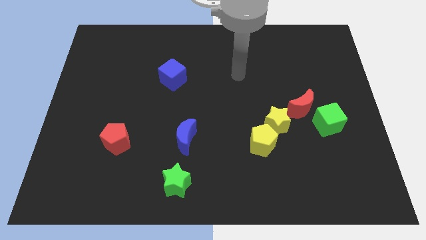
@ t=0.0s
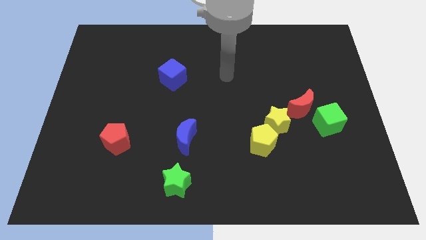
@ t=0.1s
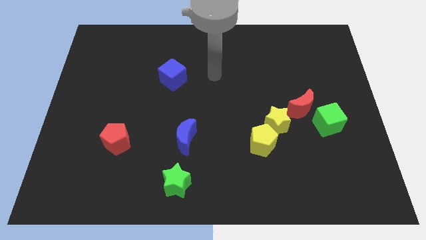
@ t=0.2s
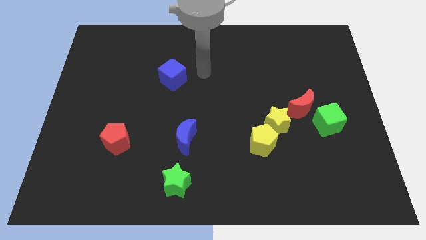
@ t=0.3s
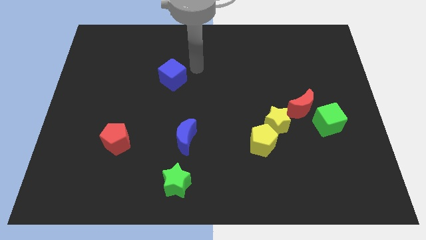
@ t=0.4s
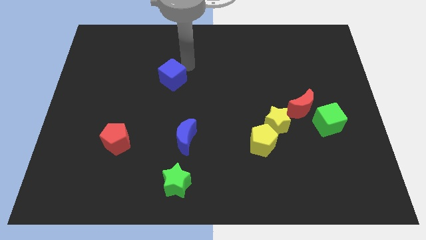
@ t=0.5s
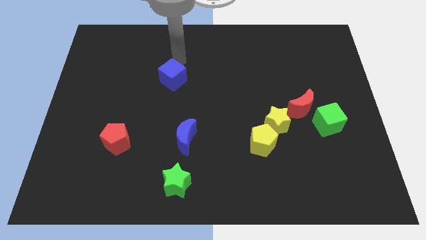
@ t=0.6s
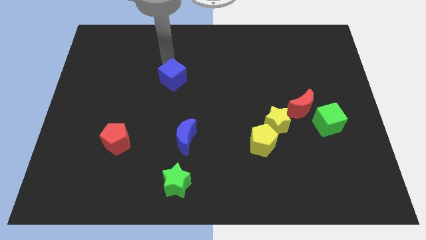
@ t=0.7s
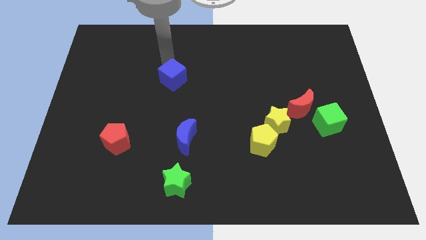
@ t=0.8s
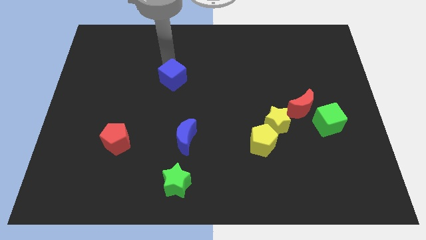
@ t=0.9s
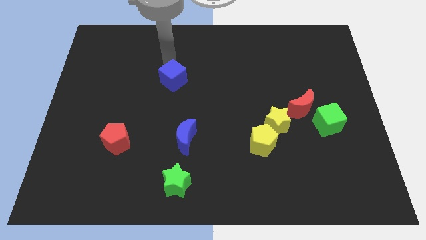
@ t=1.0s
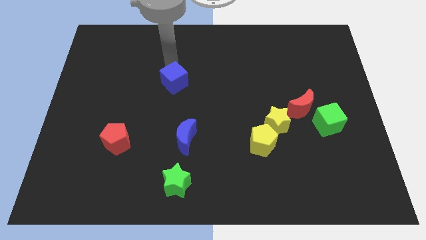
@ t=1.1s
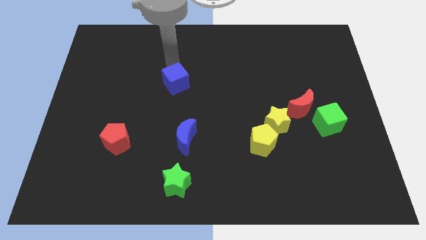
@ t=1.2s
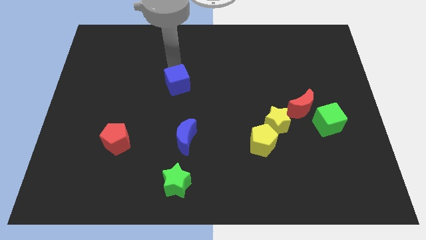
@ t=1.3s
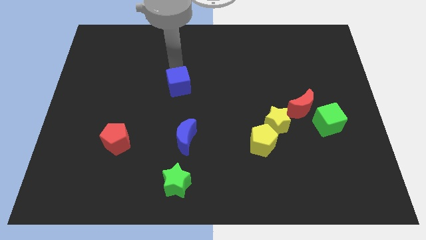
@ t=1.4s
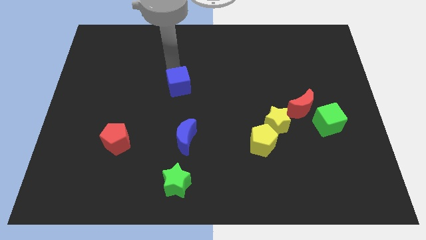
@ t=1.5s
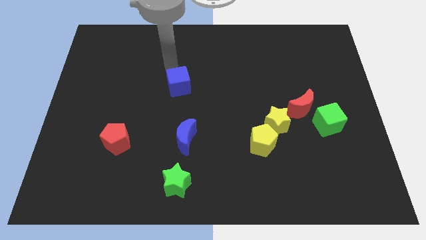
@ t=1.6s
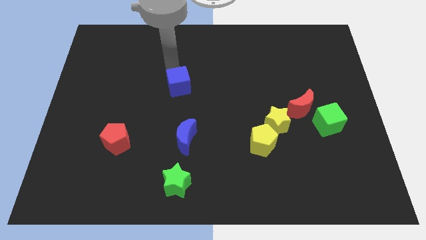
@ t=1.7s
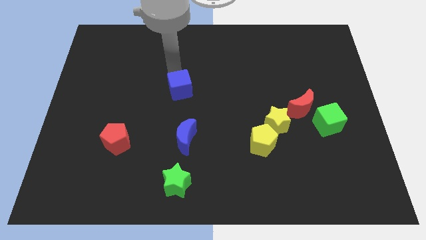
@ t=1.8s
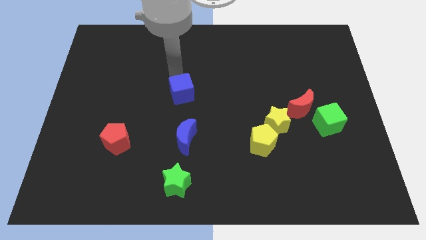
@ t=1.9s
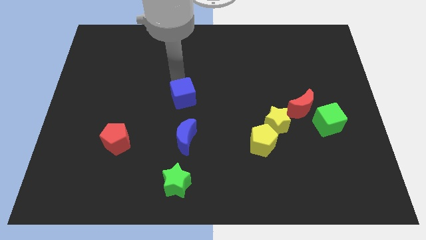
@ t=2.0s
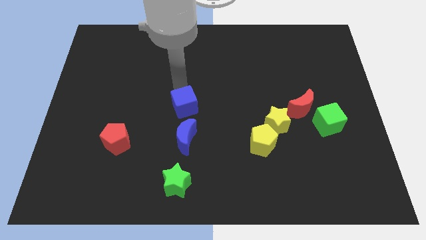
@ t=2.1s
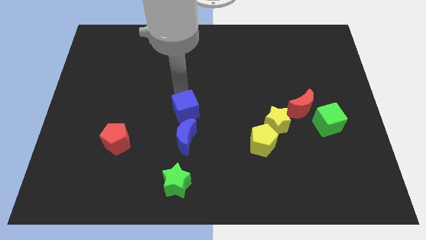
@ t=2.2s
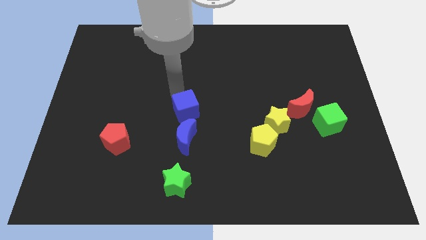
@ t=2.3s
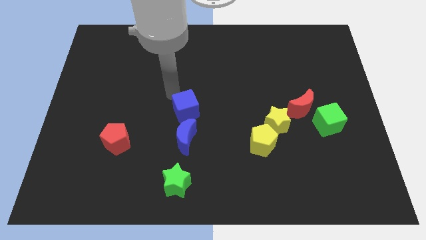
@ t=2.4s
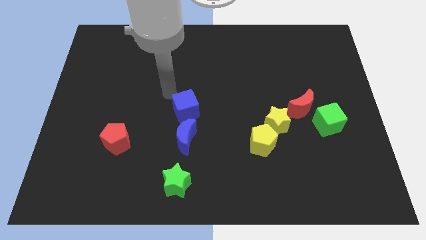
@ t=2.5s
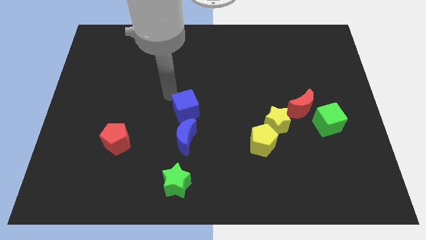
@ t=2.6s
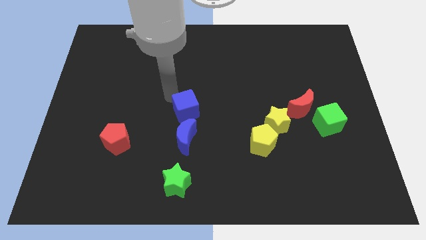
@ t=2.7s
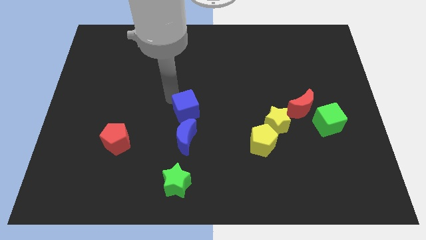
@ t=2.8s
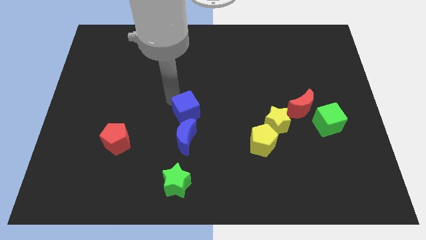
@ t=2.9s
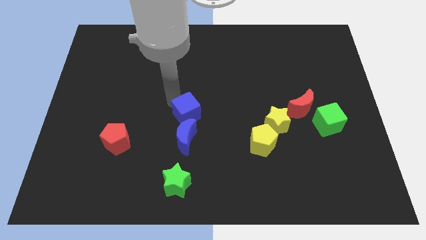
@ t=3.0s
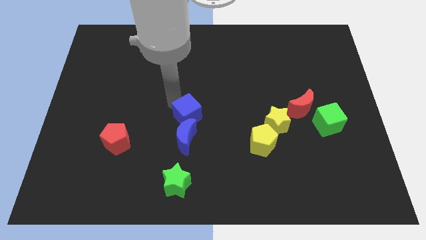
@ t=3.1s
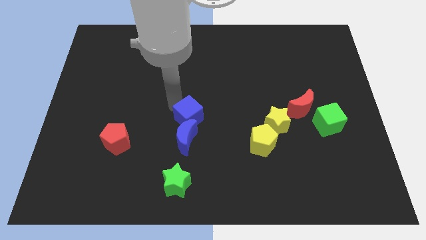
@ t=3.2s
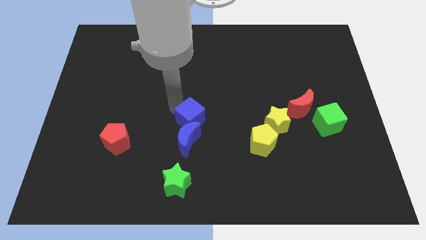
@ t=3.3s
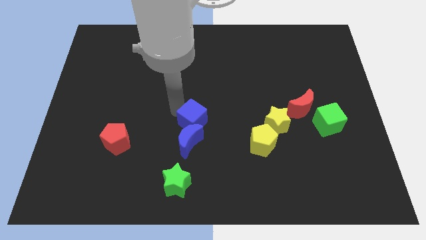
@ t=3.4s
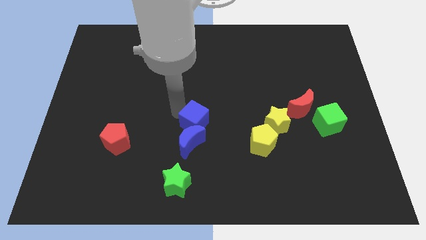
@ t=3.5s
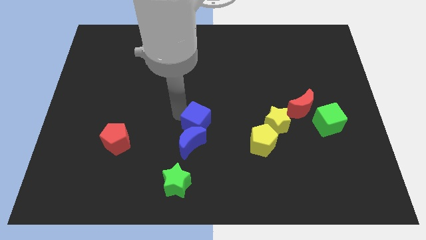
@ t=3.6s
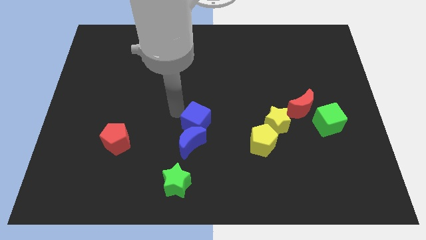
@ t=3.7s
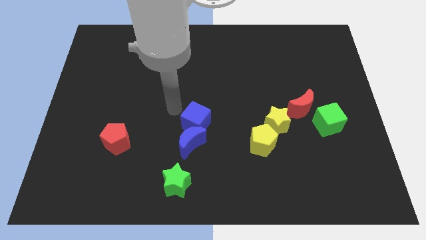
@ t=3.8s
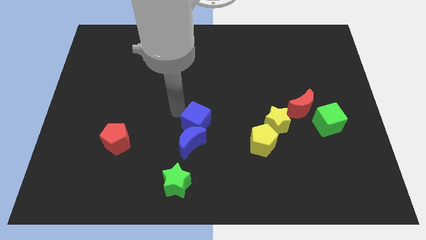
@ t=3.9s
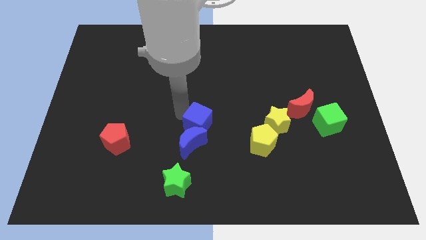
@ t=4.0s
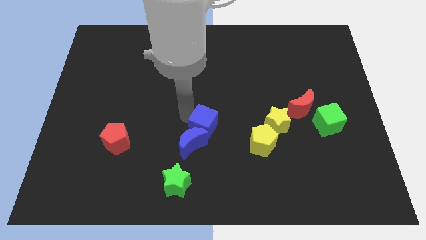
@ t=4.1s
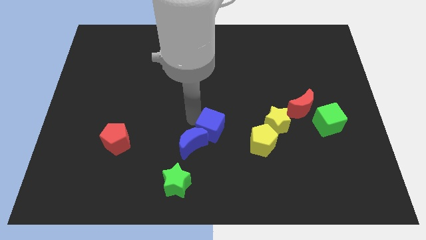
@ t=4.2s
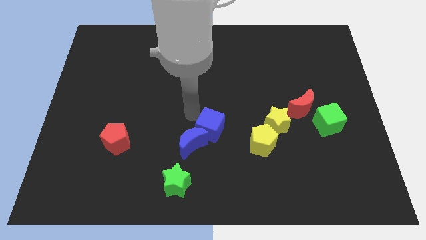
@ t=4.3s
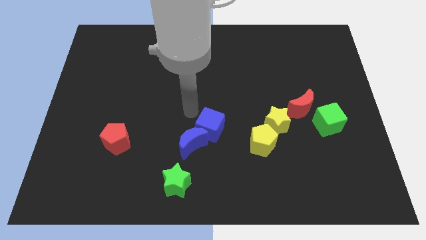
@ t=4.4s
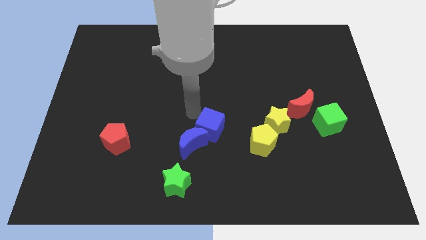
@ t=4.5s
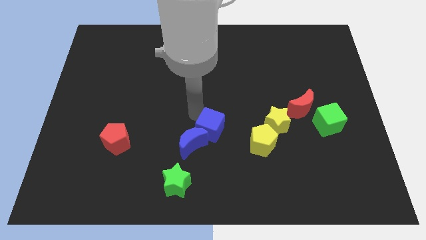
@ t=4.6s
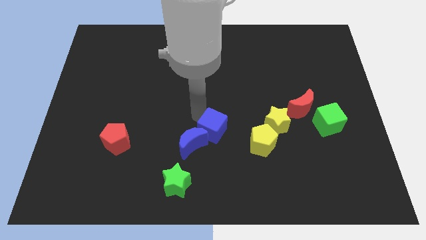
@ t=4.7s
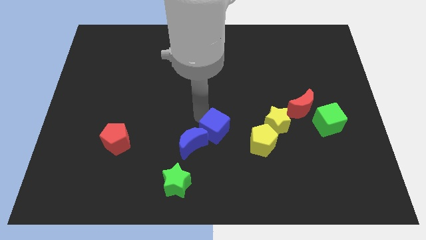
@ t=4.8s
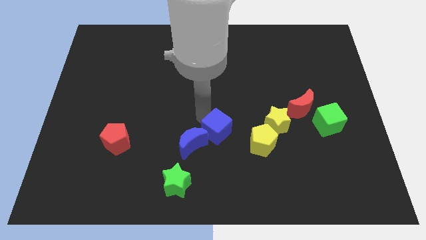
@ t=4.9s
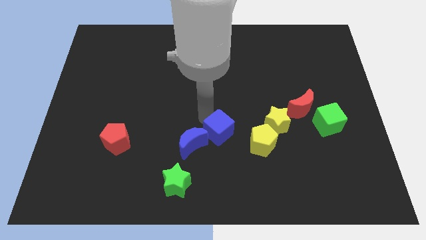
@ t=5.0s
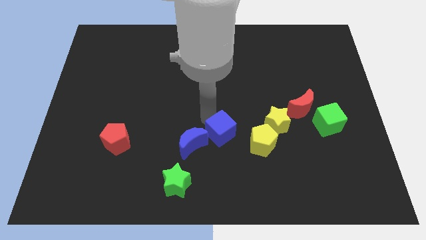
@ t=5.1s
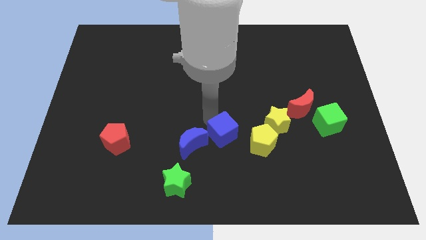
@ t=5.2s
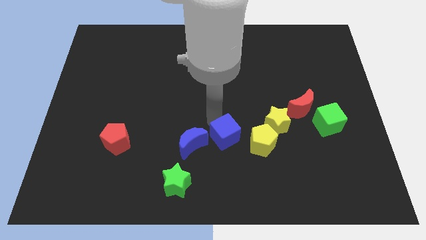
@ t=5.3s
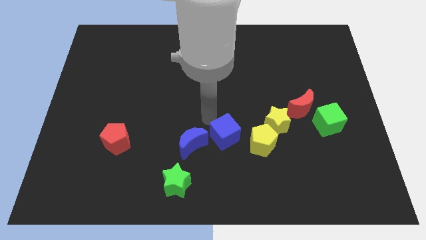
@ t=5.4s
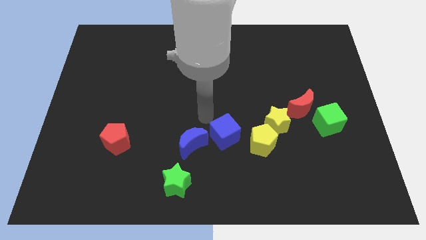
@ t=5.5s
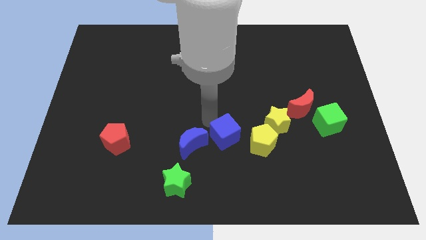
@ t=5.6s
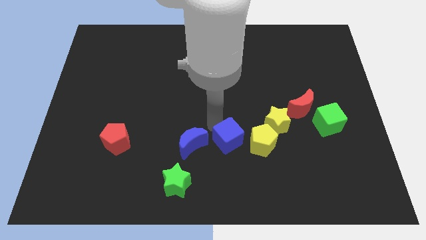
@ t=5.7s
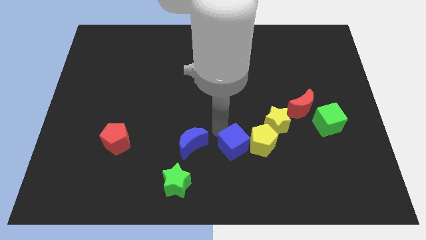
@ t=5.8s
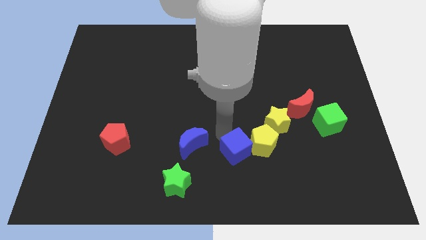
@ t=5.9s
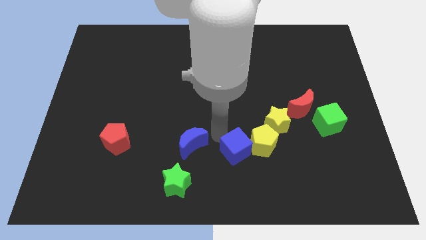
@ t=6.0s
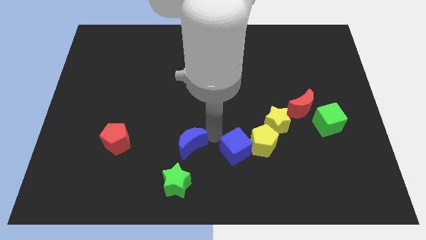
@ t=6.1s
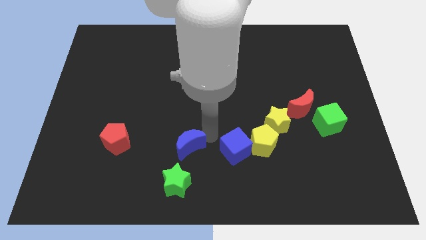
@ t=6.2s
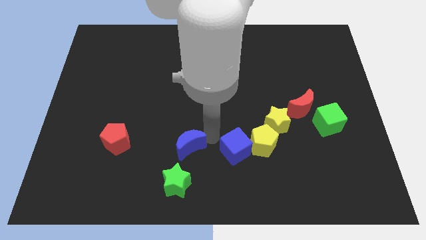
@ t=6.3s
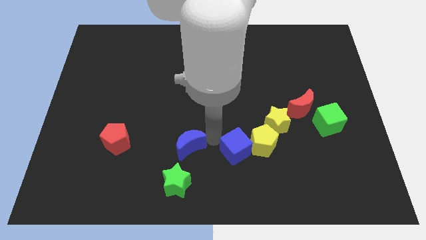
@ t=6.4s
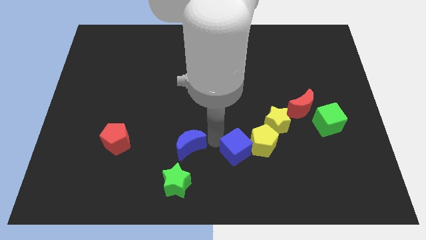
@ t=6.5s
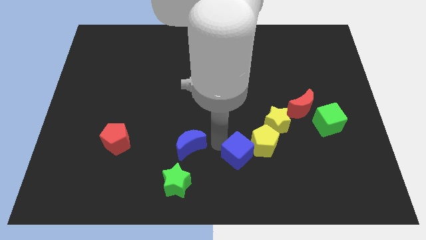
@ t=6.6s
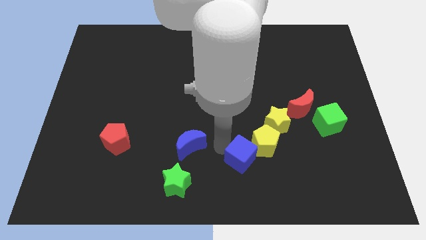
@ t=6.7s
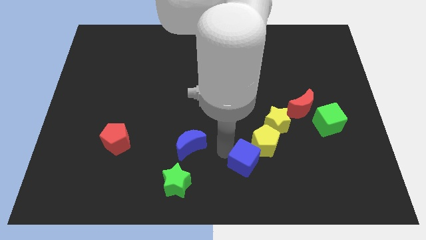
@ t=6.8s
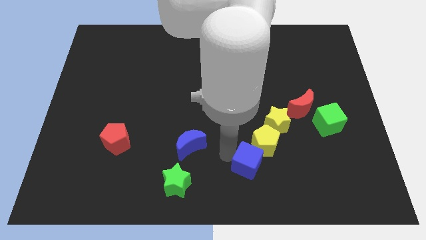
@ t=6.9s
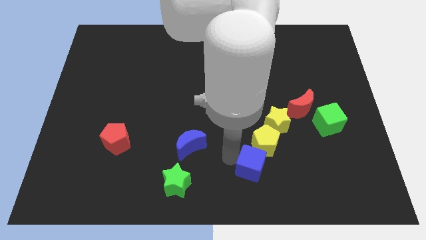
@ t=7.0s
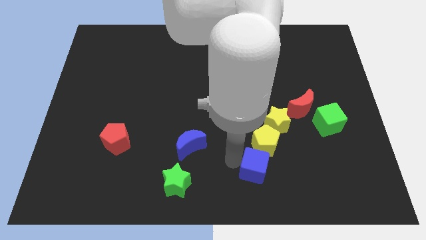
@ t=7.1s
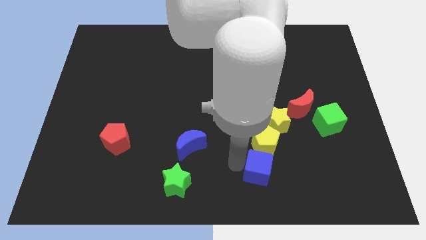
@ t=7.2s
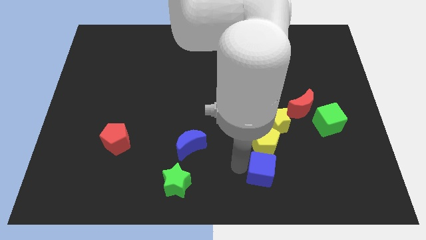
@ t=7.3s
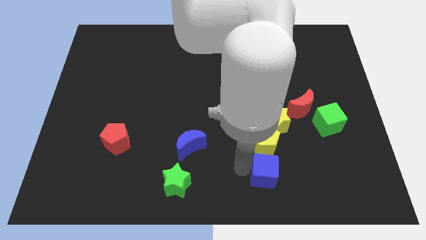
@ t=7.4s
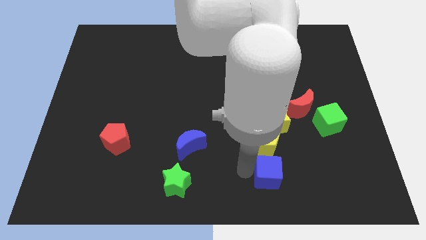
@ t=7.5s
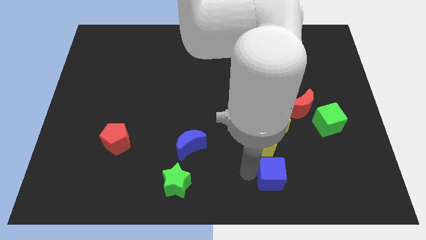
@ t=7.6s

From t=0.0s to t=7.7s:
put the blue cube to the bottom right of the yellow pentagon
